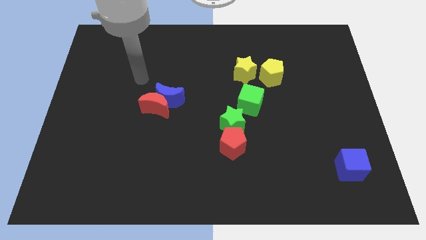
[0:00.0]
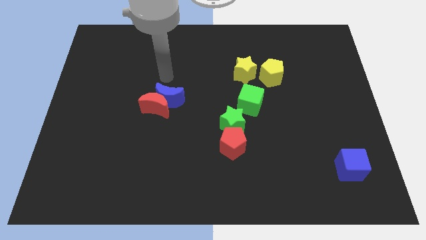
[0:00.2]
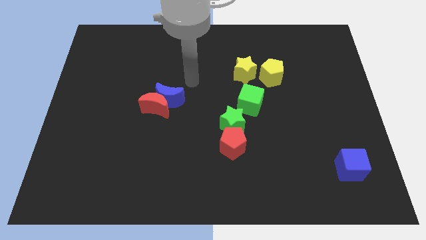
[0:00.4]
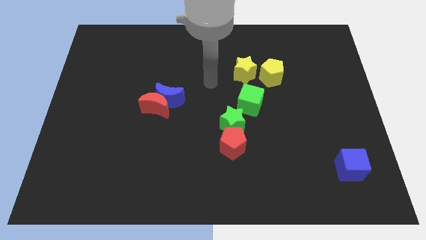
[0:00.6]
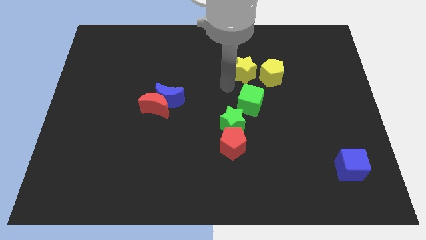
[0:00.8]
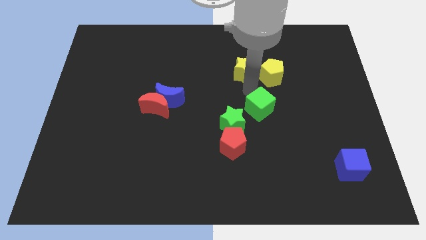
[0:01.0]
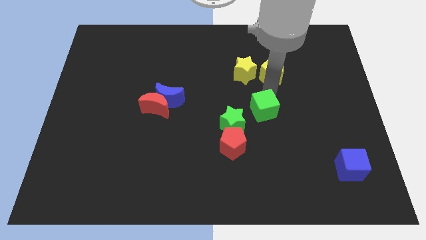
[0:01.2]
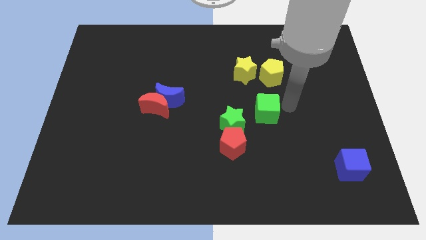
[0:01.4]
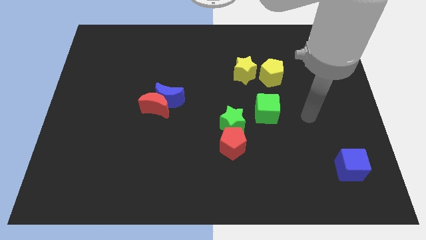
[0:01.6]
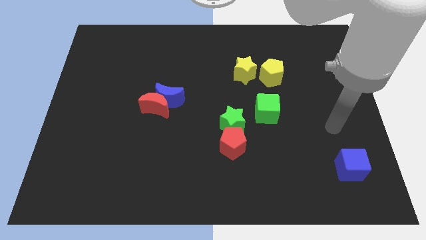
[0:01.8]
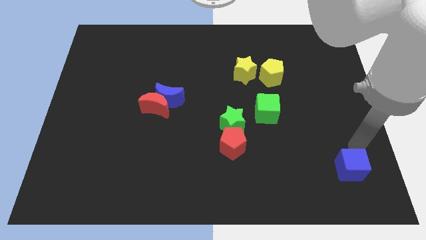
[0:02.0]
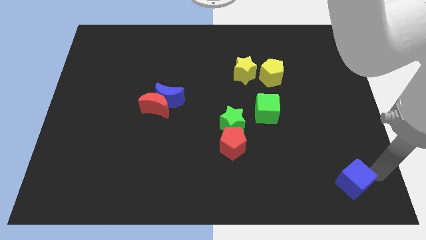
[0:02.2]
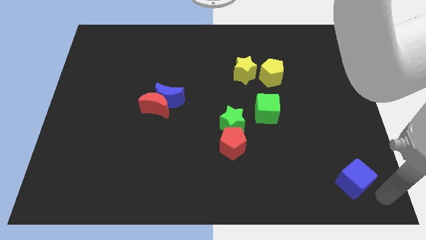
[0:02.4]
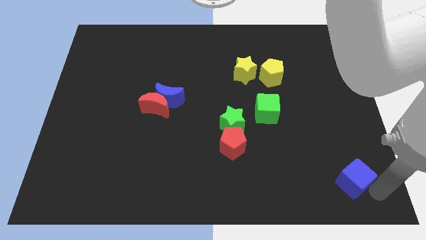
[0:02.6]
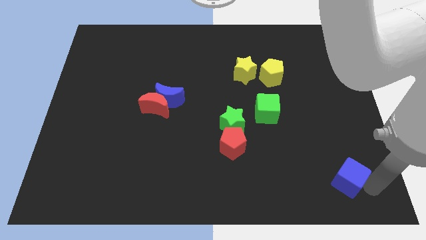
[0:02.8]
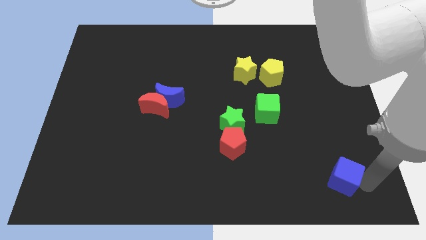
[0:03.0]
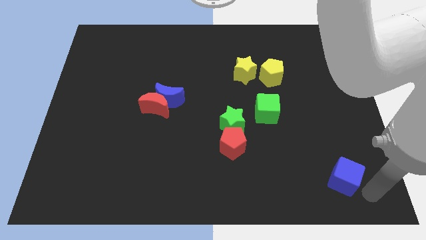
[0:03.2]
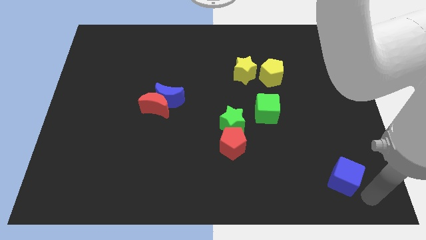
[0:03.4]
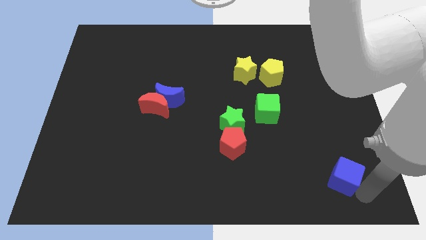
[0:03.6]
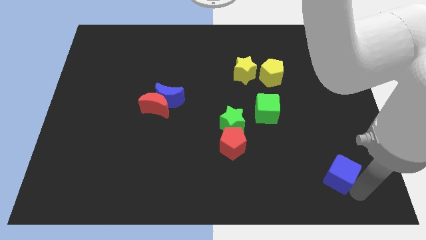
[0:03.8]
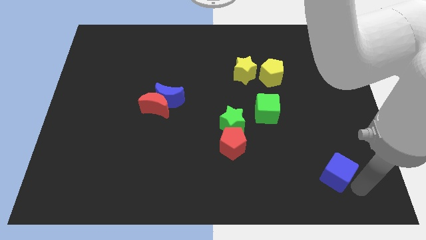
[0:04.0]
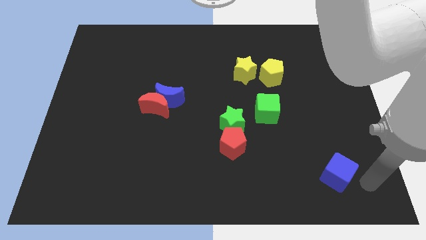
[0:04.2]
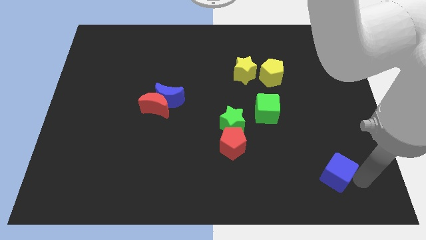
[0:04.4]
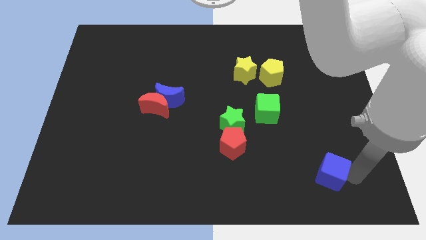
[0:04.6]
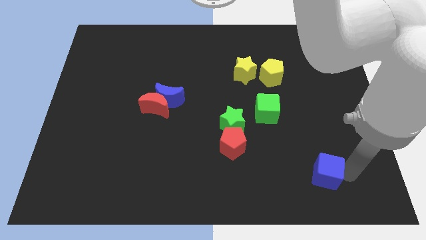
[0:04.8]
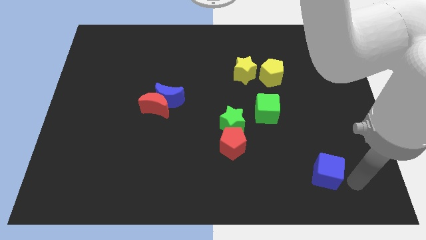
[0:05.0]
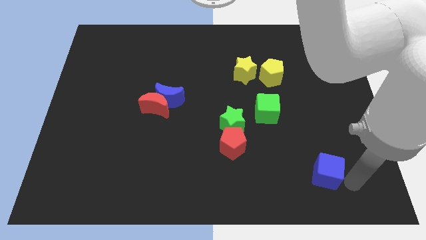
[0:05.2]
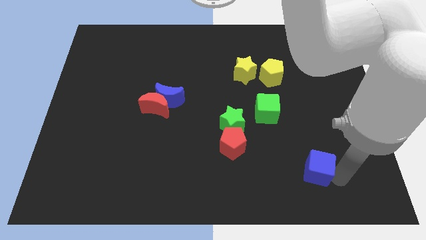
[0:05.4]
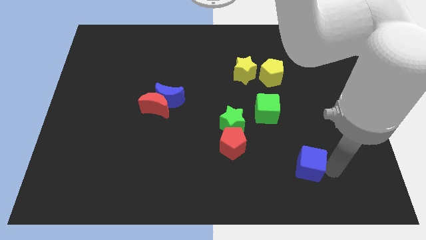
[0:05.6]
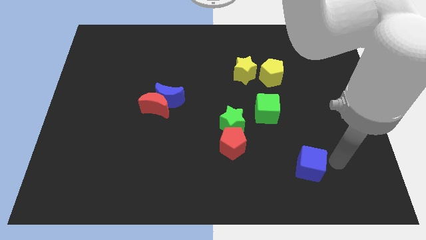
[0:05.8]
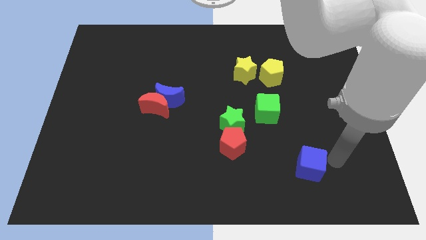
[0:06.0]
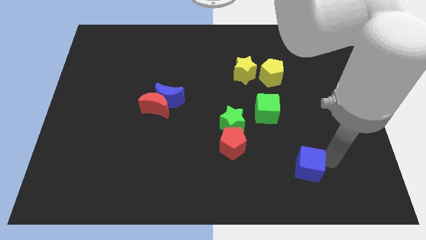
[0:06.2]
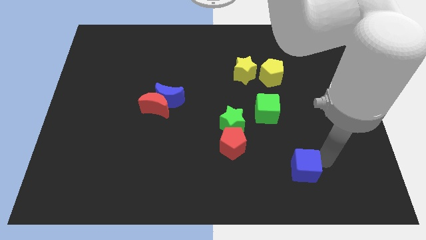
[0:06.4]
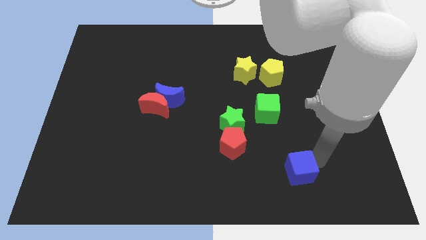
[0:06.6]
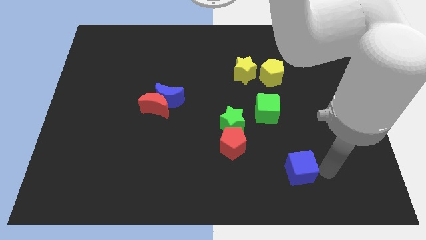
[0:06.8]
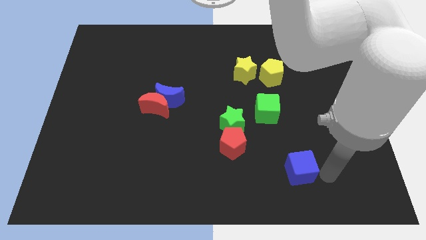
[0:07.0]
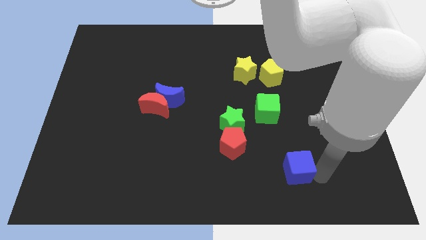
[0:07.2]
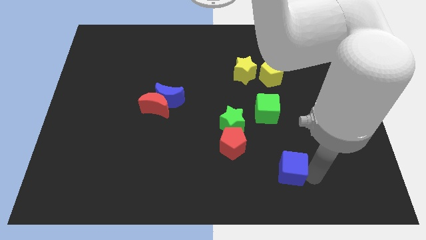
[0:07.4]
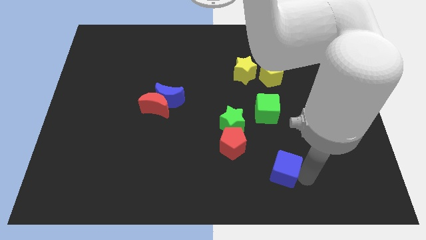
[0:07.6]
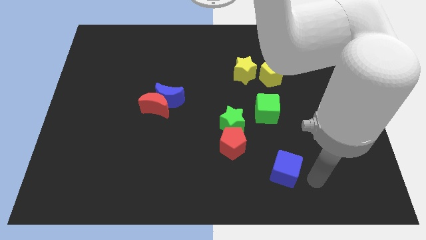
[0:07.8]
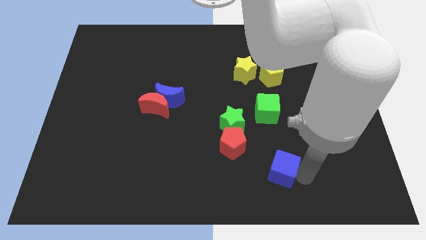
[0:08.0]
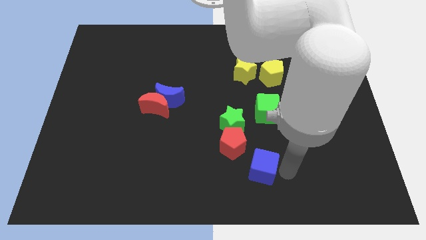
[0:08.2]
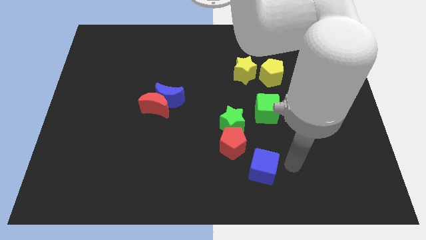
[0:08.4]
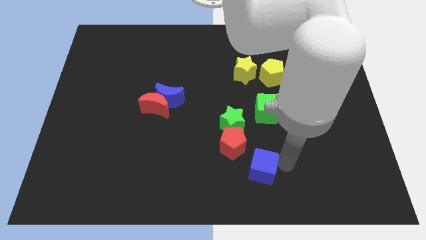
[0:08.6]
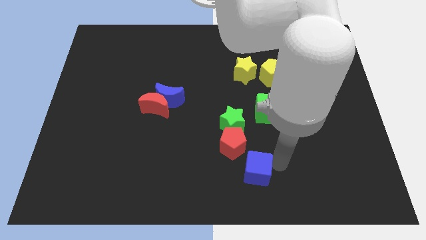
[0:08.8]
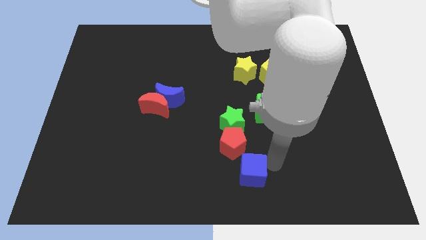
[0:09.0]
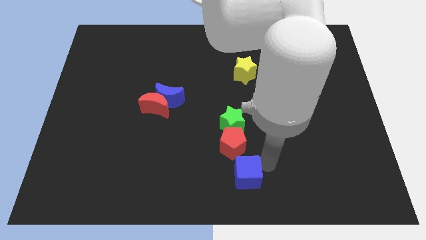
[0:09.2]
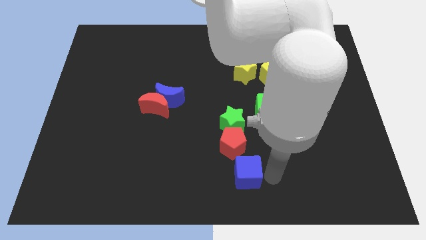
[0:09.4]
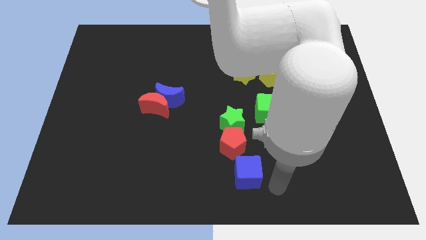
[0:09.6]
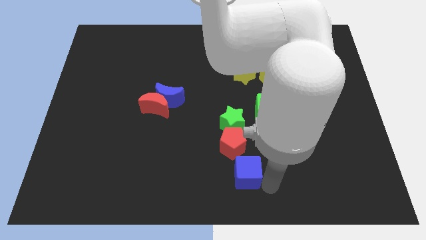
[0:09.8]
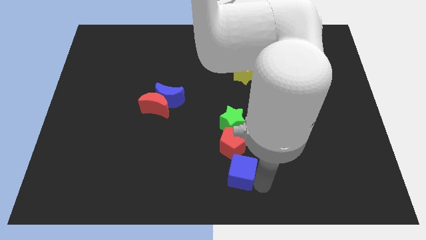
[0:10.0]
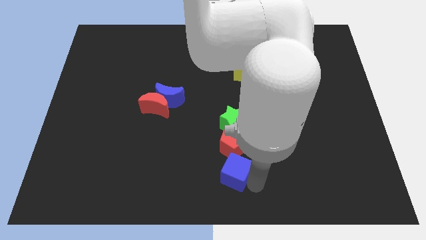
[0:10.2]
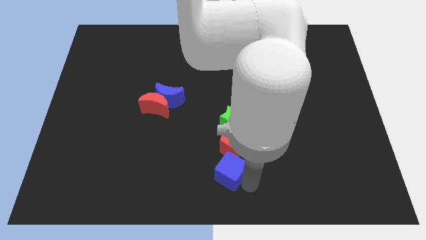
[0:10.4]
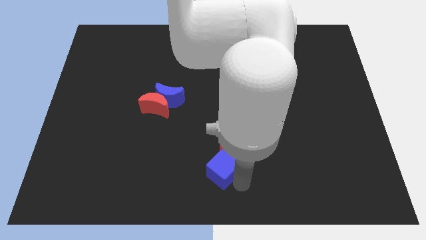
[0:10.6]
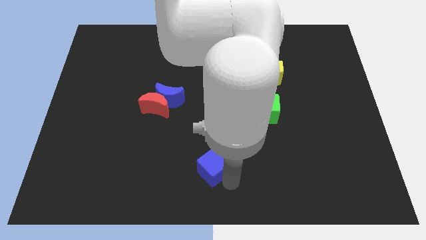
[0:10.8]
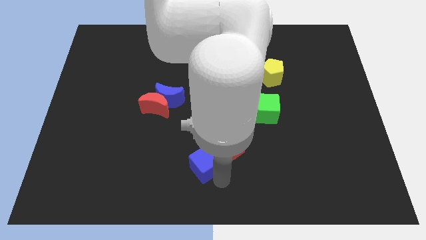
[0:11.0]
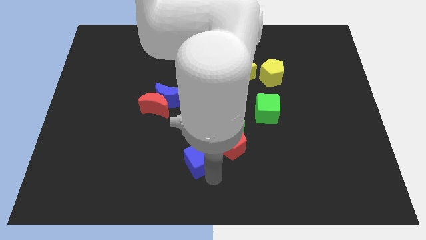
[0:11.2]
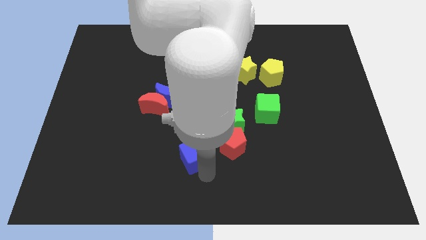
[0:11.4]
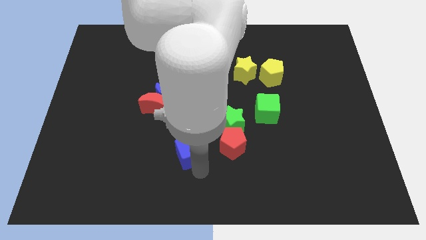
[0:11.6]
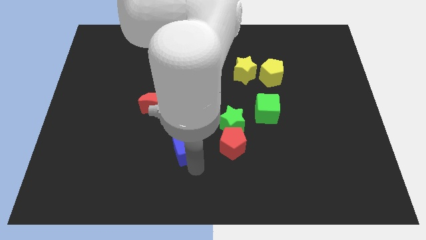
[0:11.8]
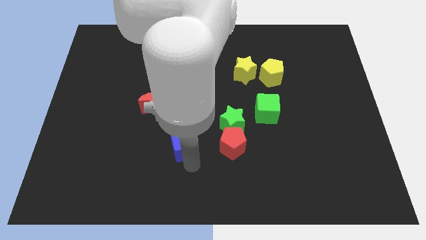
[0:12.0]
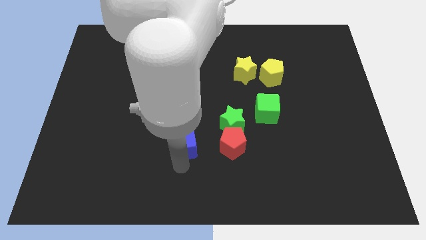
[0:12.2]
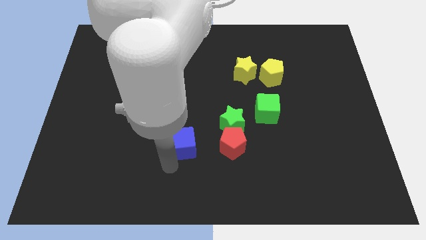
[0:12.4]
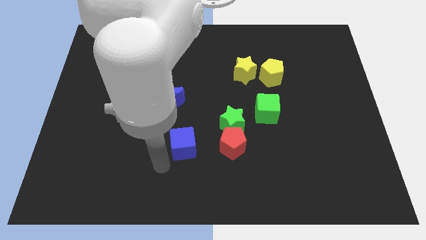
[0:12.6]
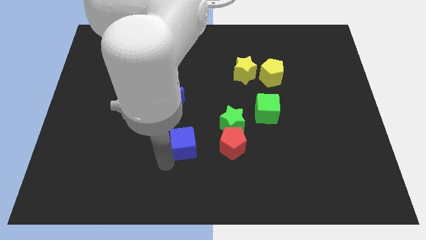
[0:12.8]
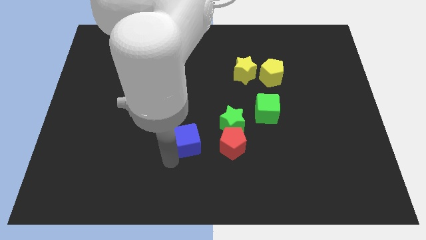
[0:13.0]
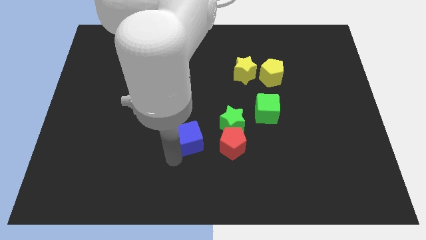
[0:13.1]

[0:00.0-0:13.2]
slide the blue cube to the left side of the green star

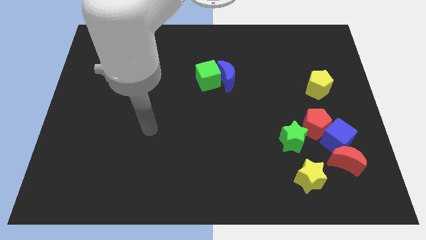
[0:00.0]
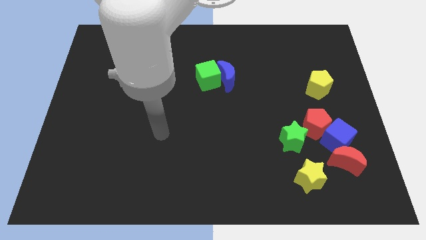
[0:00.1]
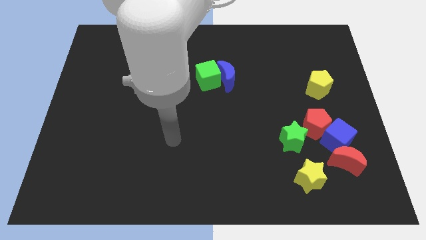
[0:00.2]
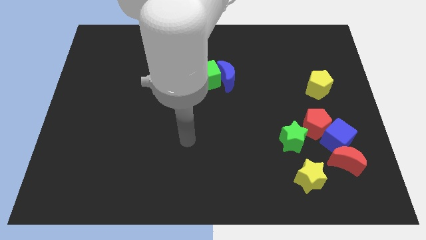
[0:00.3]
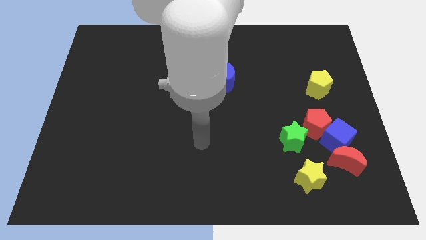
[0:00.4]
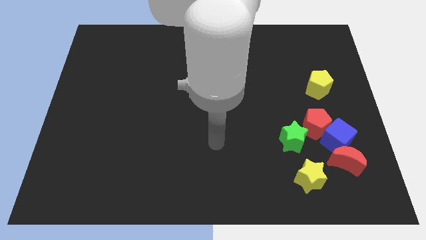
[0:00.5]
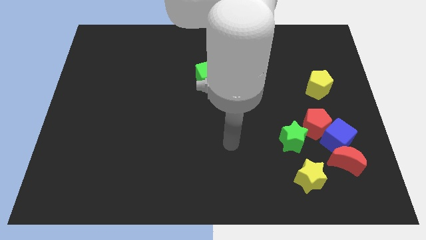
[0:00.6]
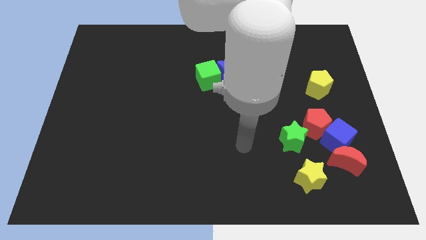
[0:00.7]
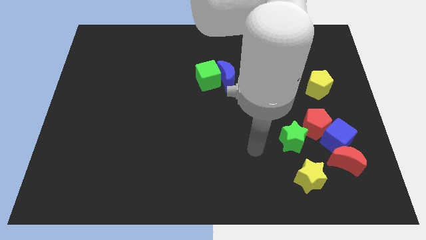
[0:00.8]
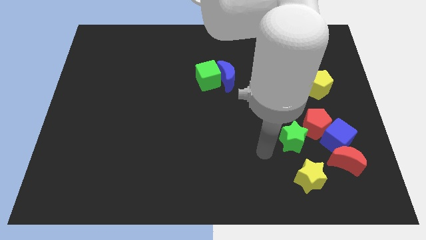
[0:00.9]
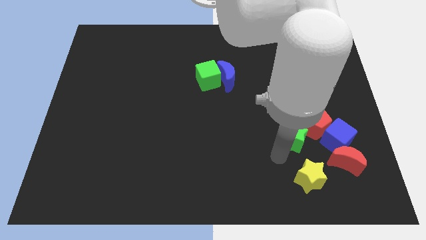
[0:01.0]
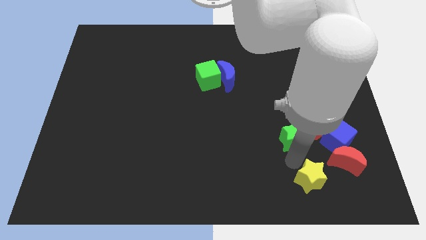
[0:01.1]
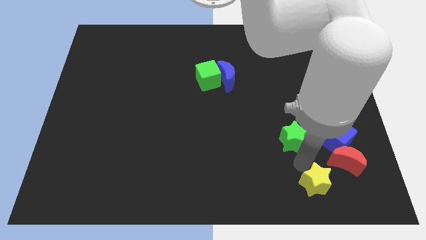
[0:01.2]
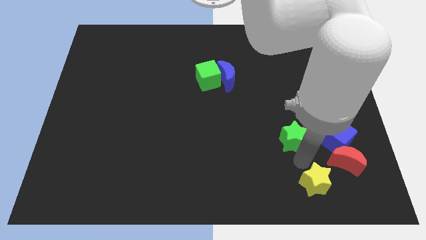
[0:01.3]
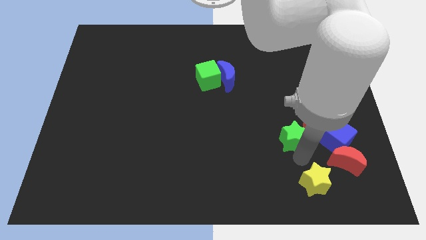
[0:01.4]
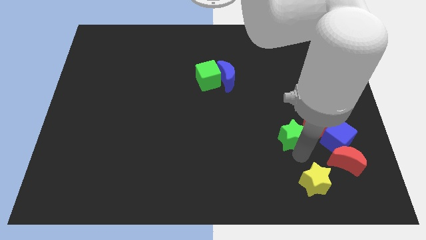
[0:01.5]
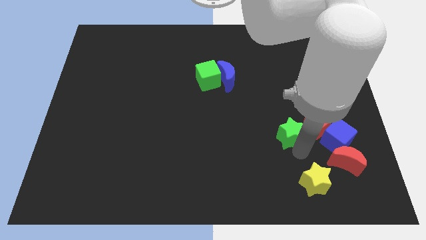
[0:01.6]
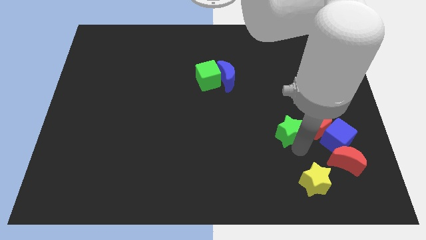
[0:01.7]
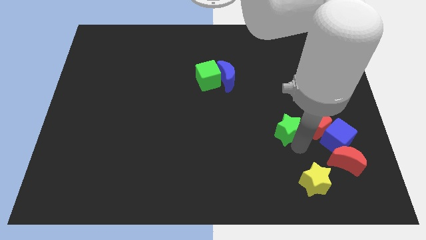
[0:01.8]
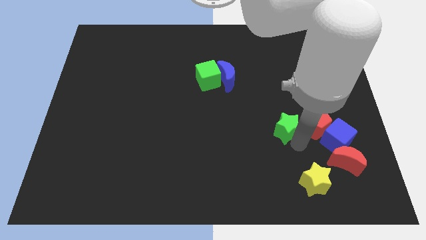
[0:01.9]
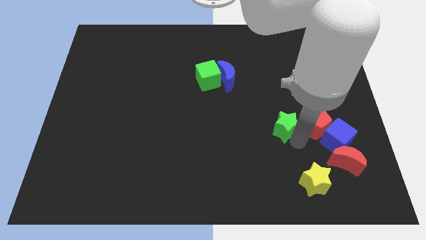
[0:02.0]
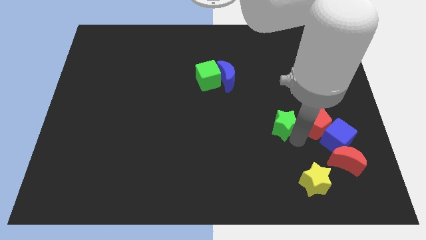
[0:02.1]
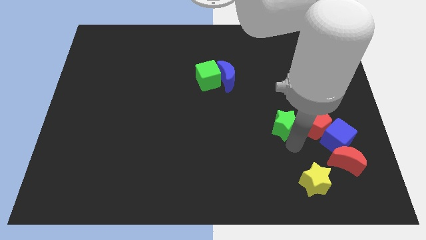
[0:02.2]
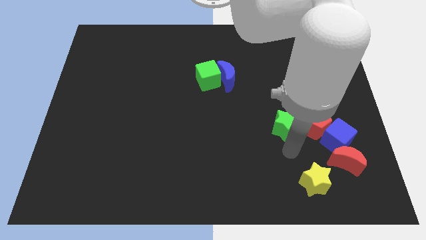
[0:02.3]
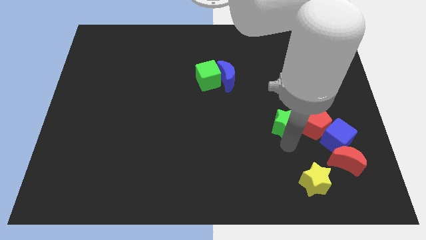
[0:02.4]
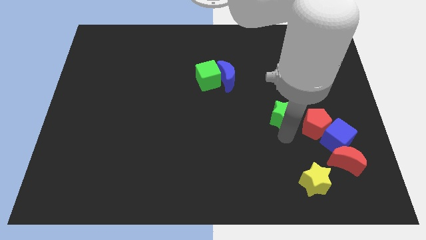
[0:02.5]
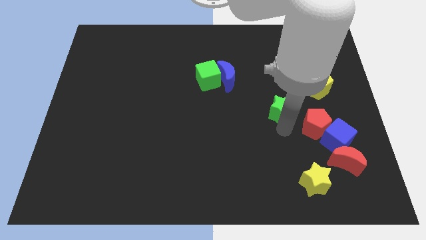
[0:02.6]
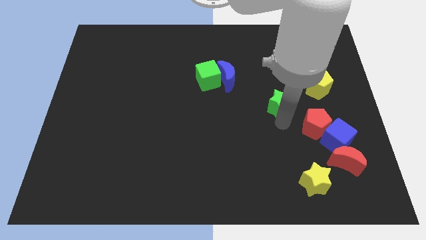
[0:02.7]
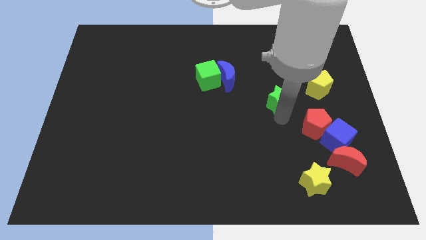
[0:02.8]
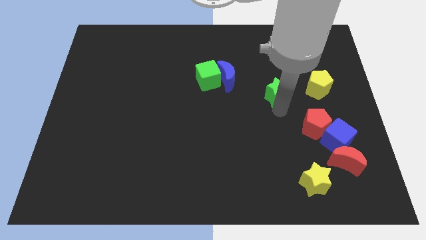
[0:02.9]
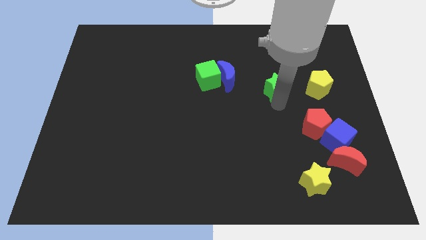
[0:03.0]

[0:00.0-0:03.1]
move the green star just right of the blue moon
